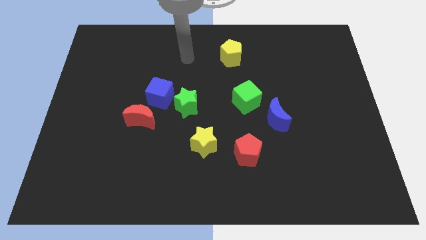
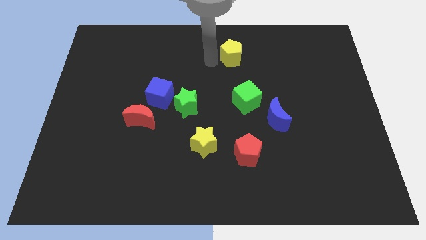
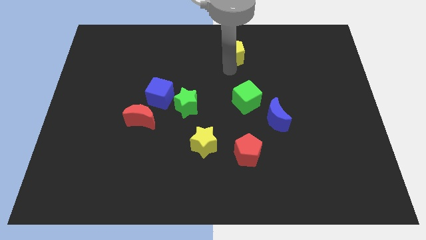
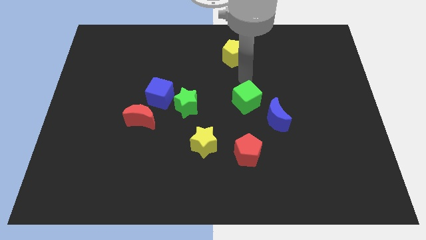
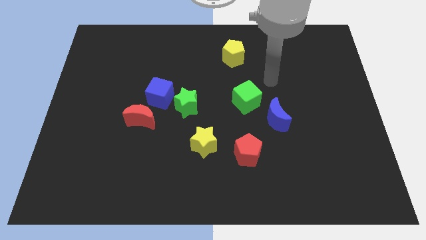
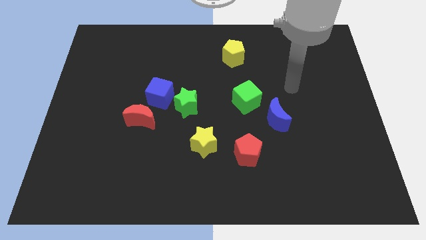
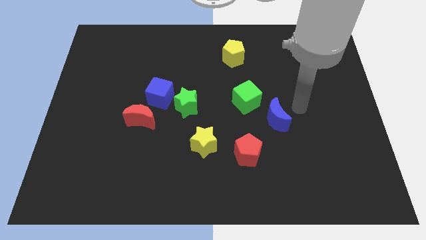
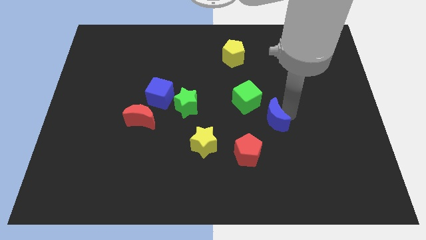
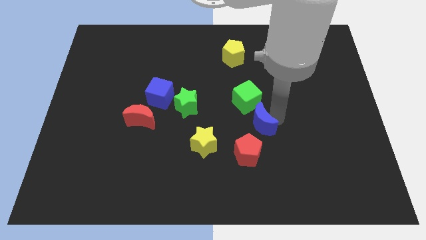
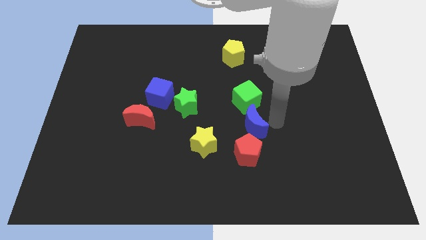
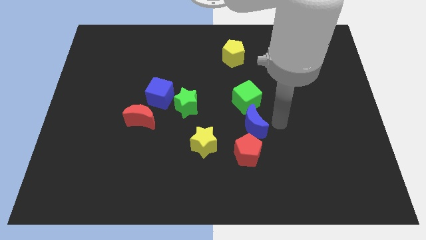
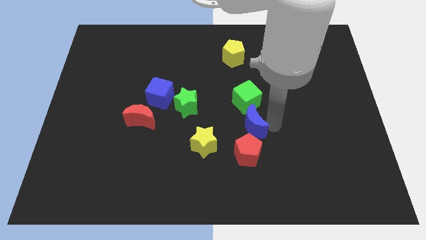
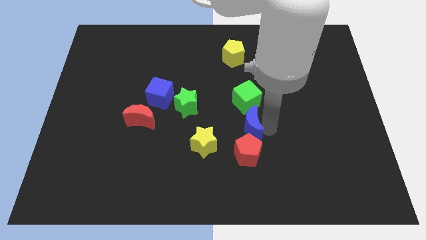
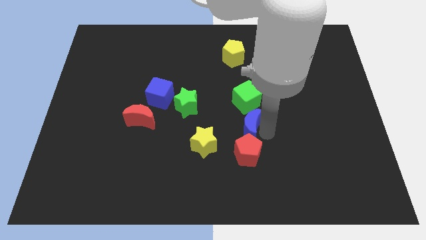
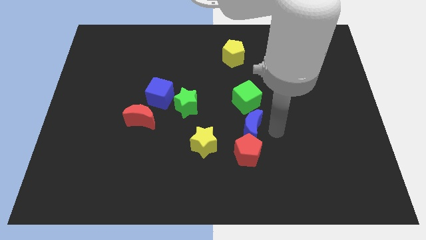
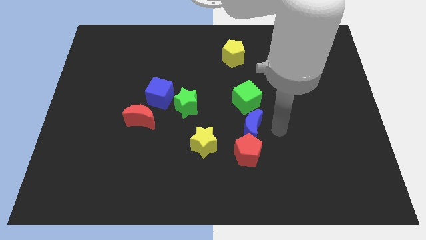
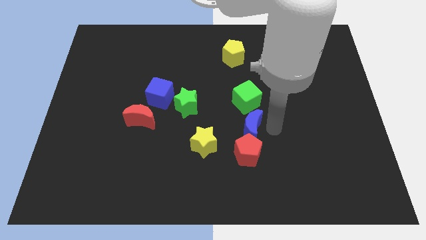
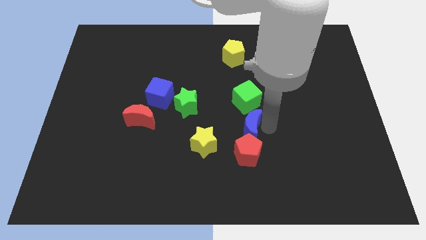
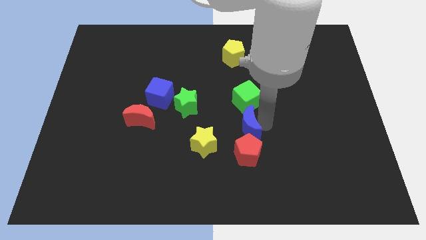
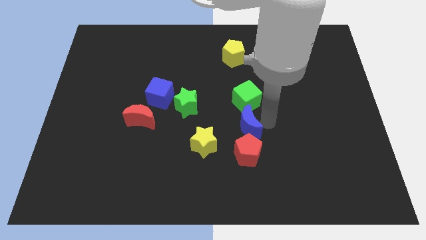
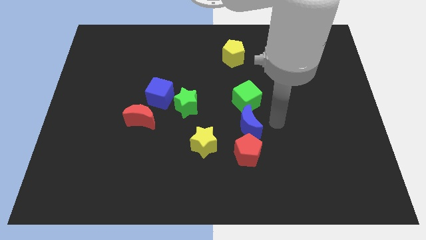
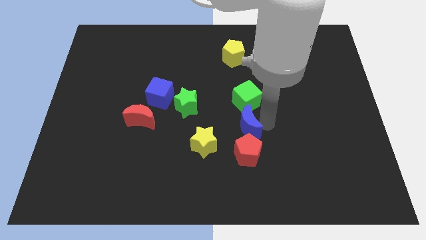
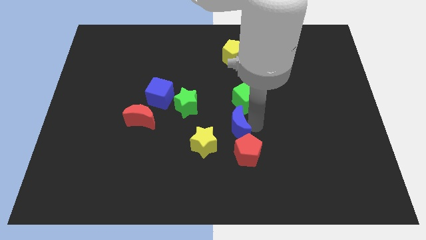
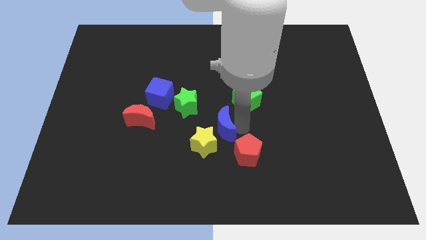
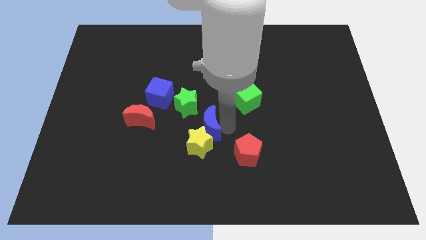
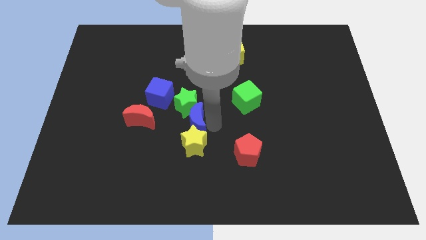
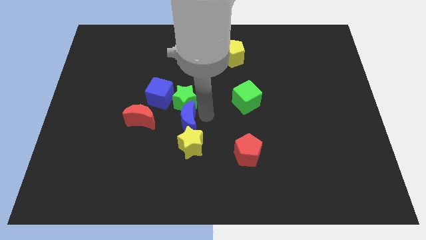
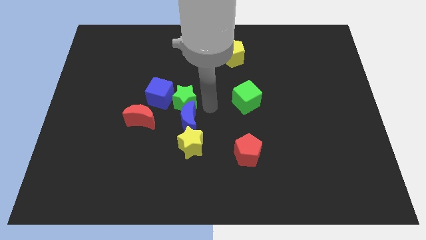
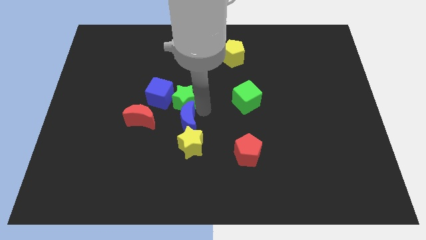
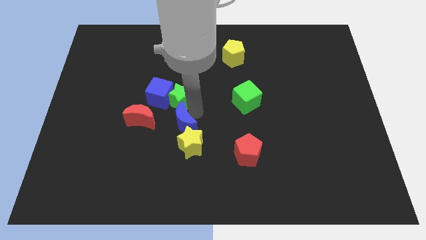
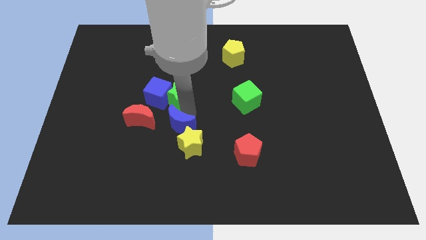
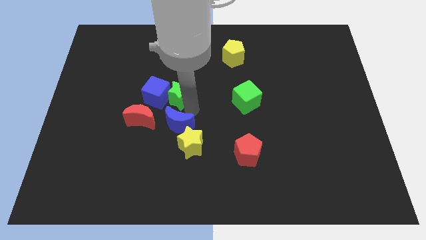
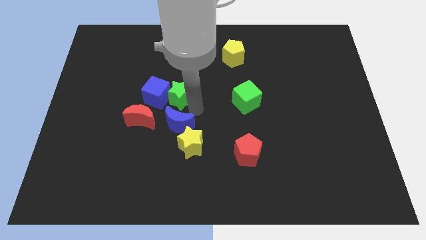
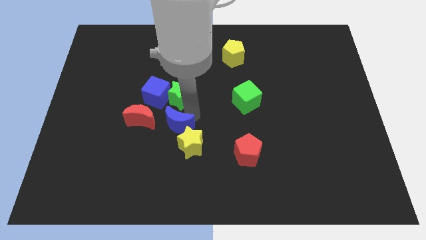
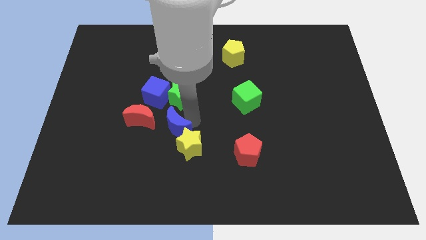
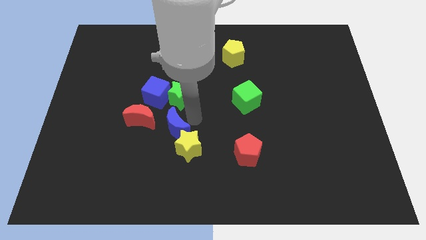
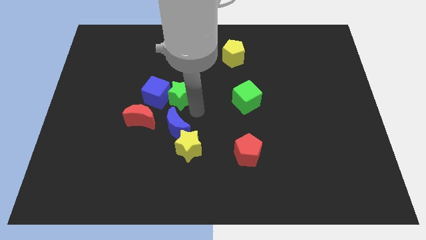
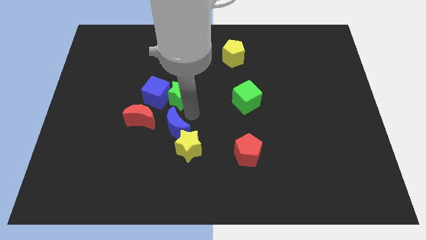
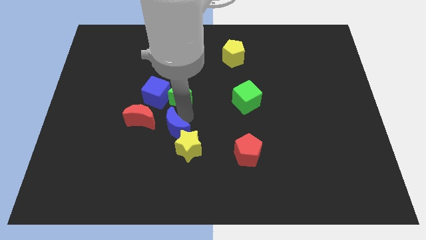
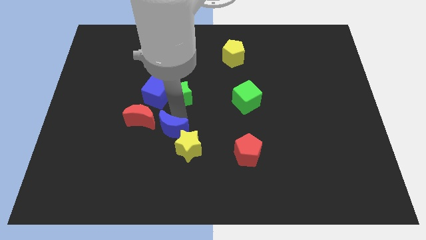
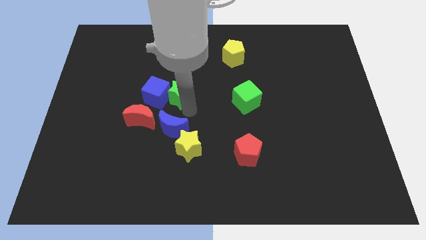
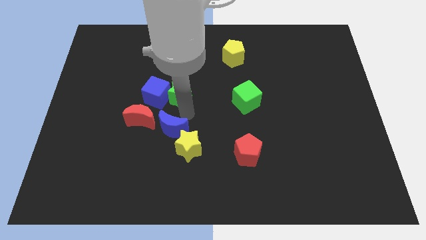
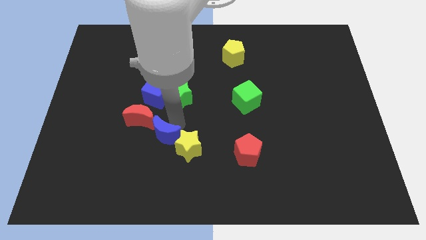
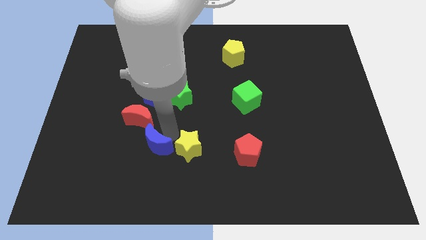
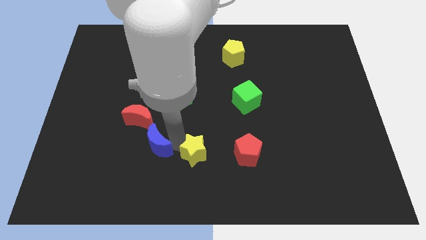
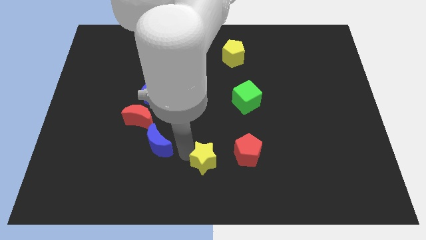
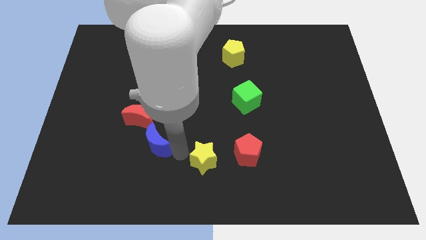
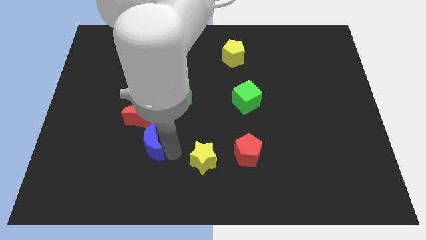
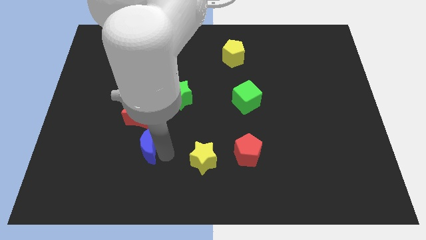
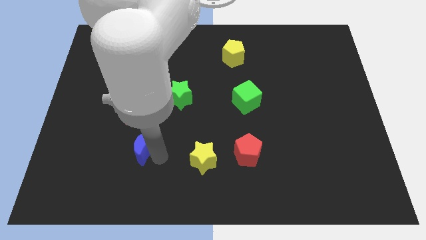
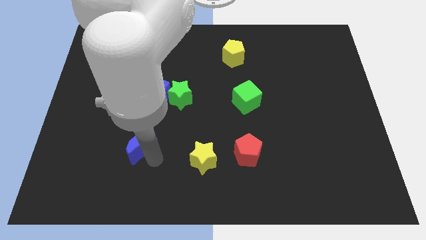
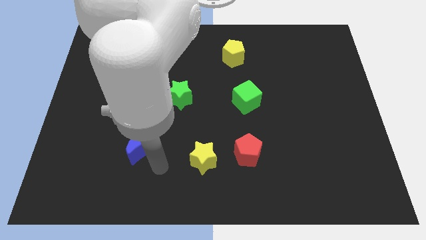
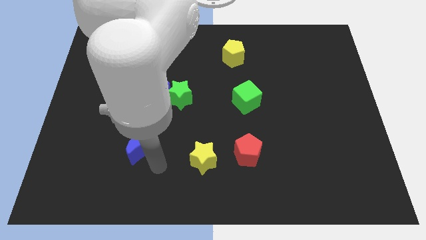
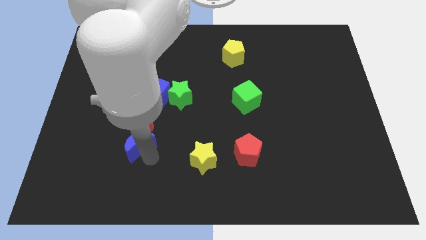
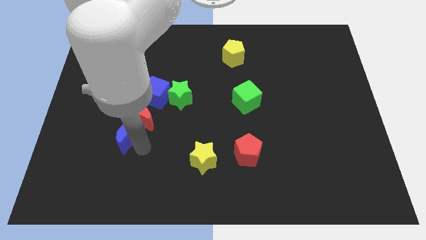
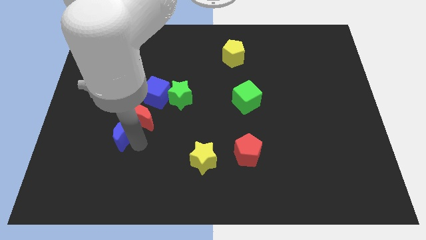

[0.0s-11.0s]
move the blue moon just left of the red moon

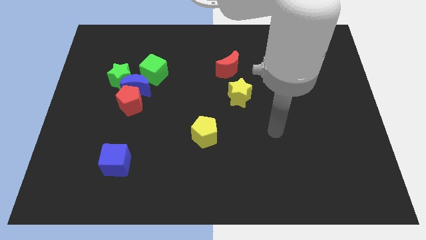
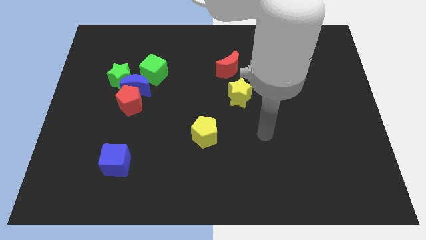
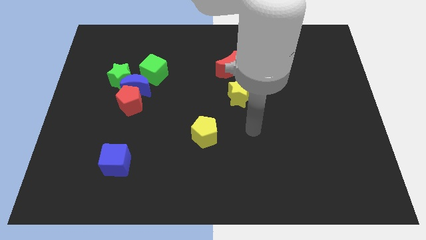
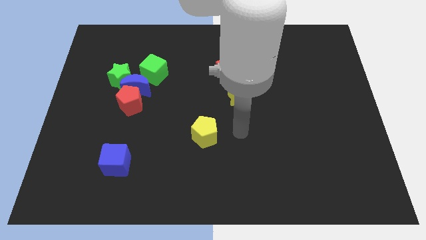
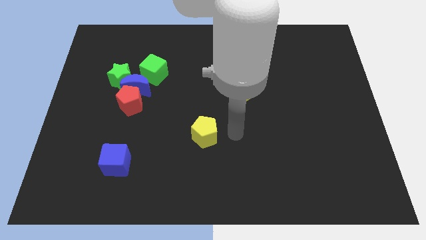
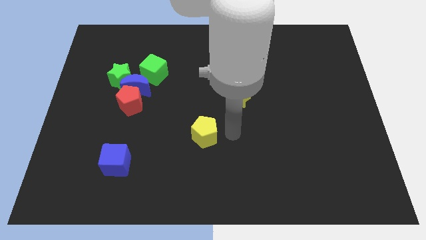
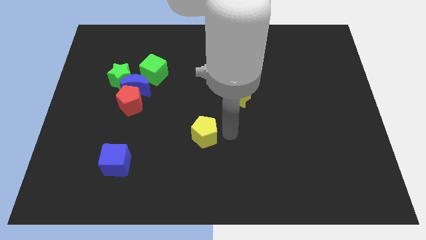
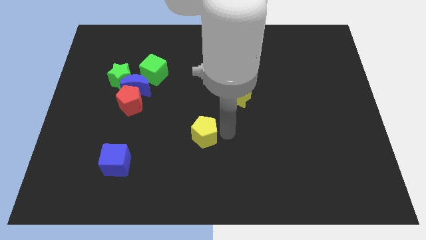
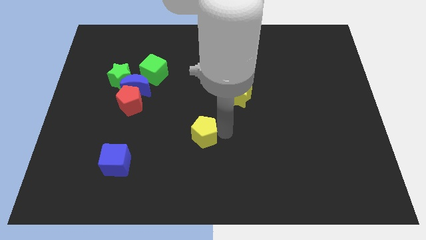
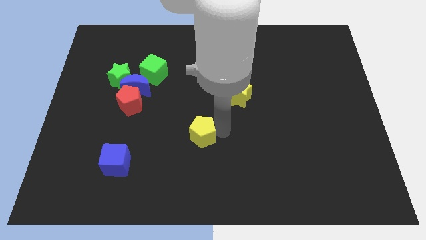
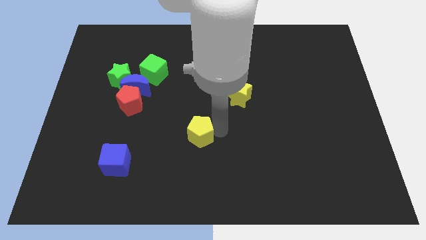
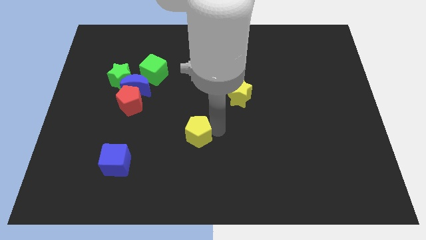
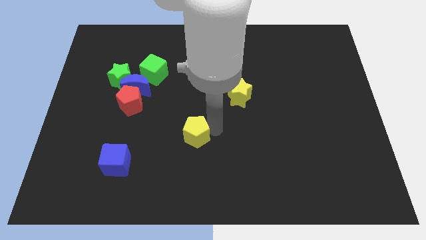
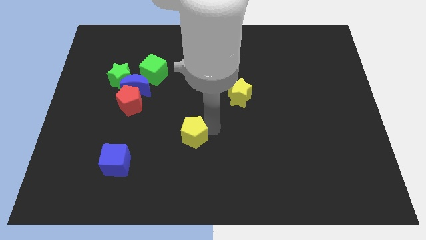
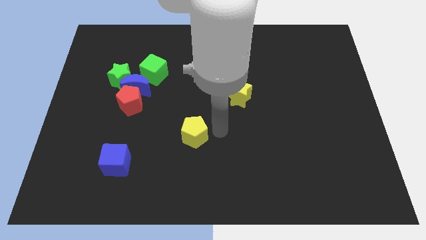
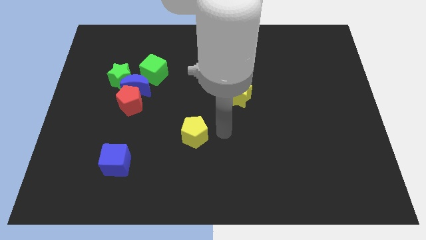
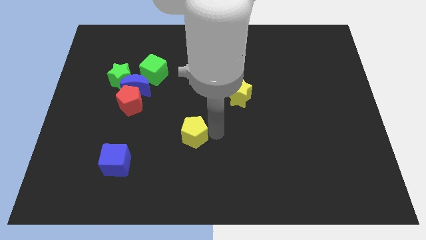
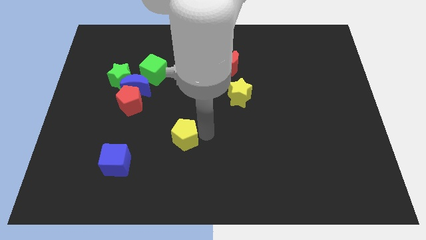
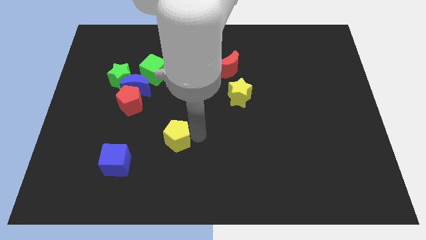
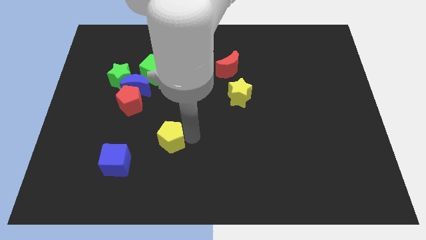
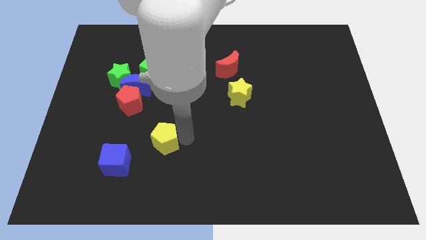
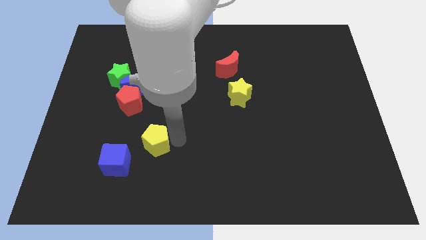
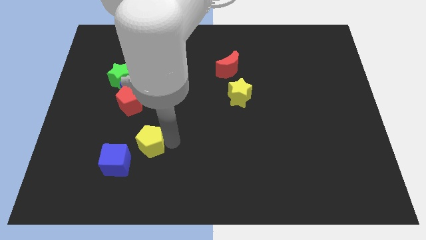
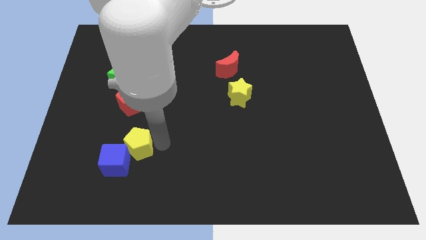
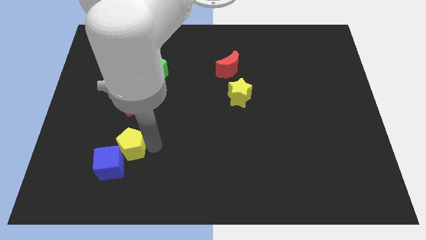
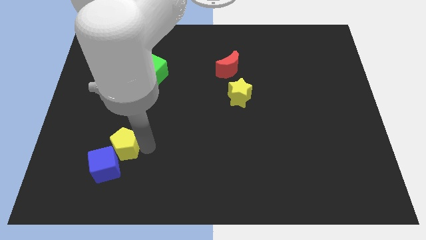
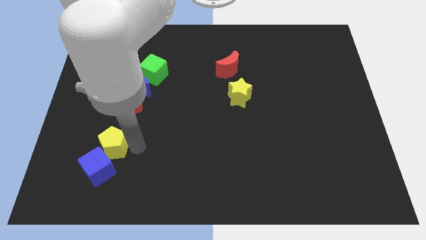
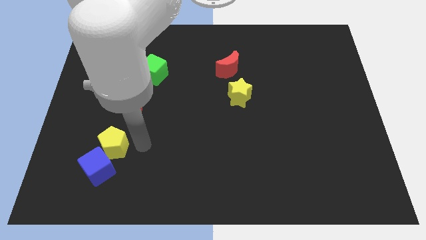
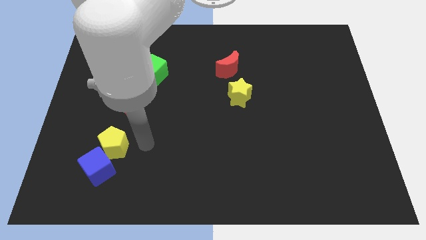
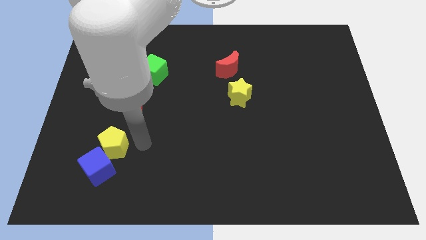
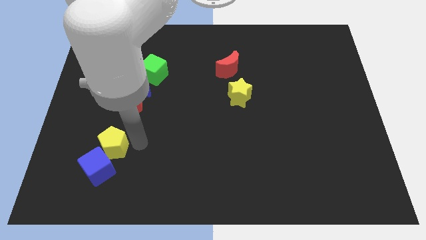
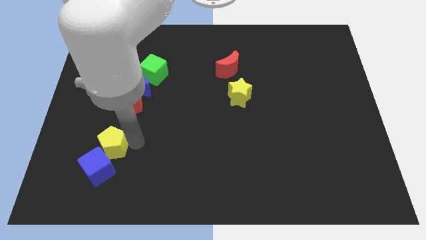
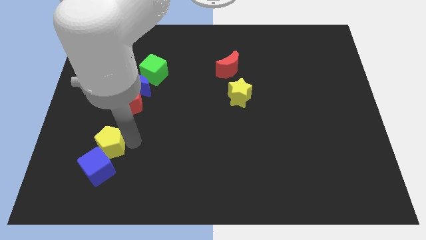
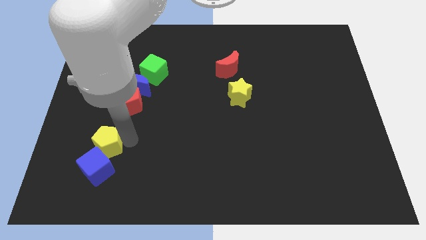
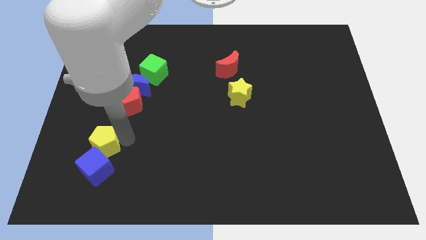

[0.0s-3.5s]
put the yellow pentagon diagonally up and to the left of the blue cube
